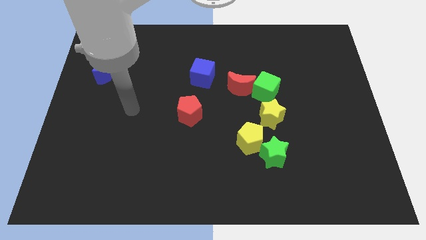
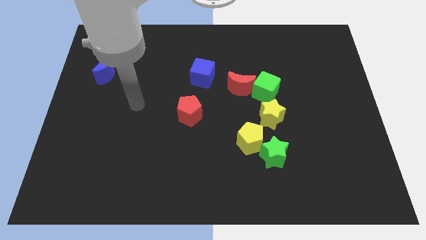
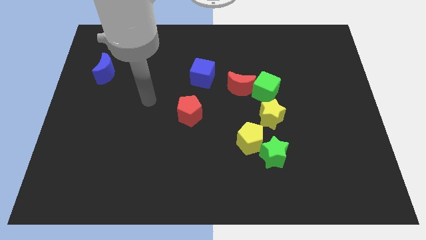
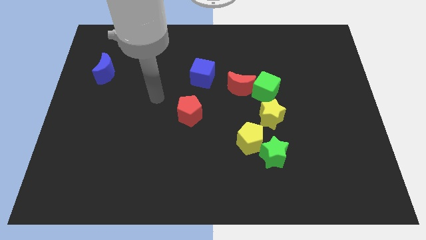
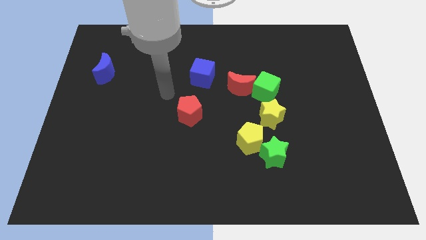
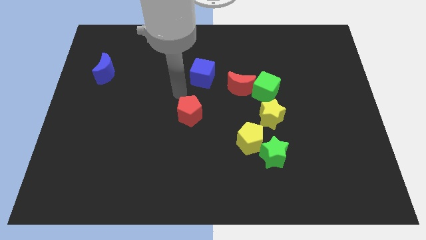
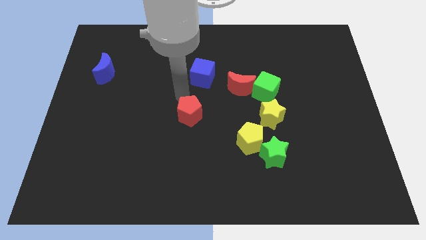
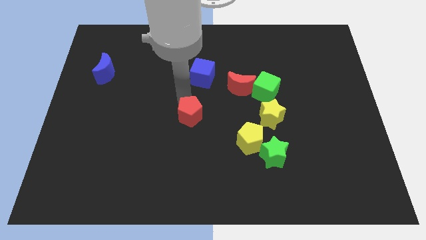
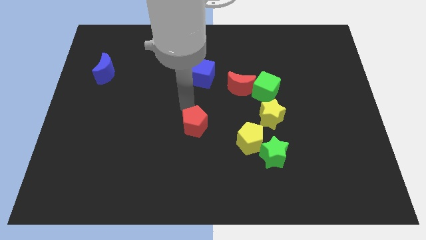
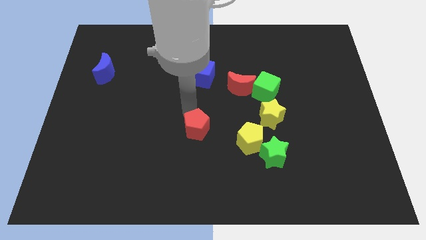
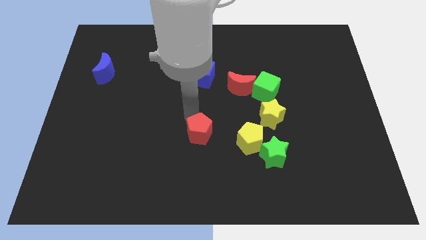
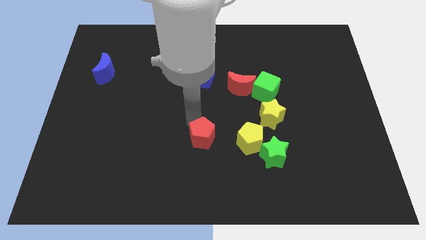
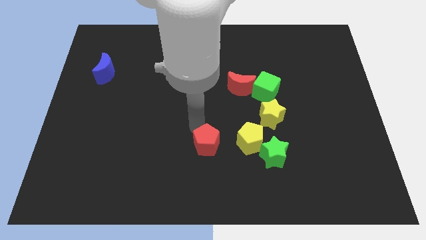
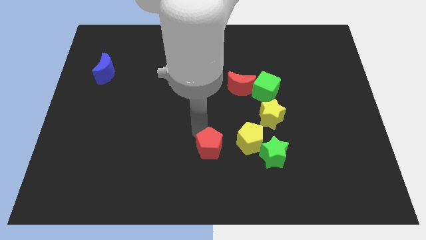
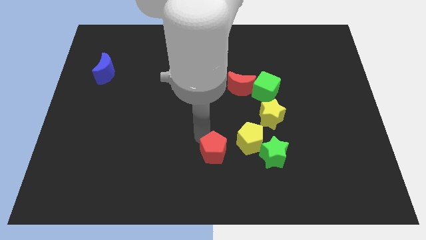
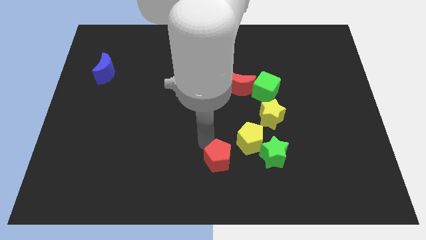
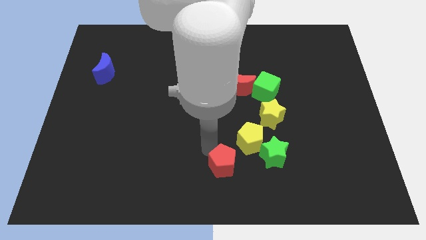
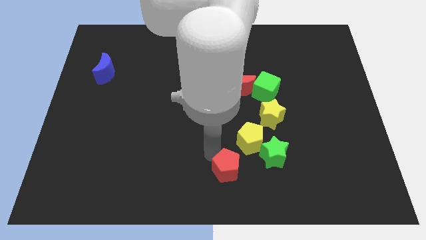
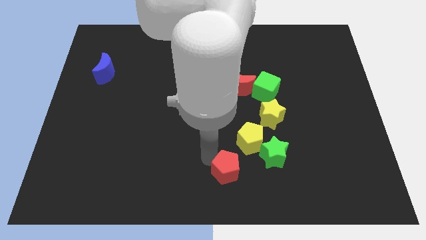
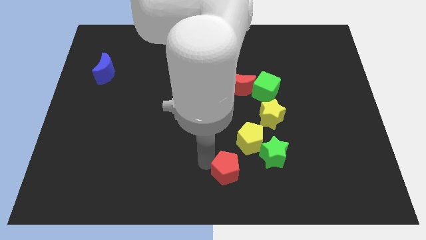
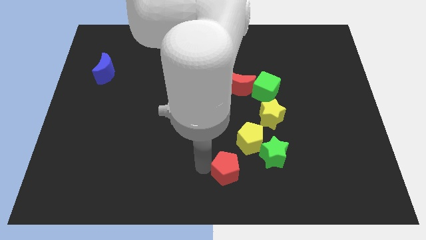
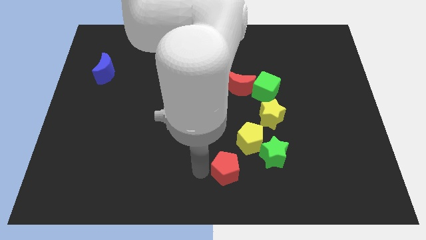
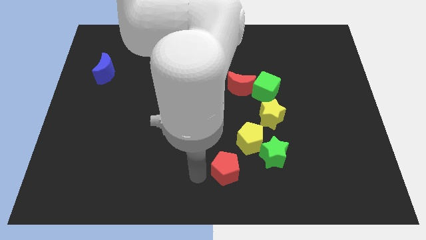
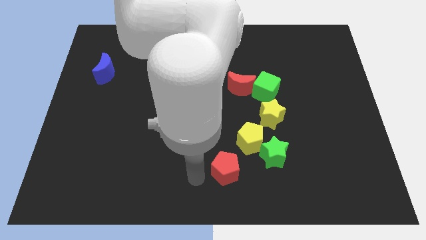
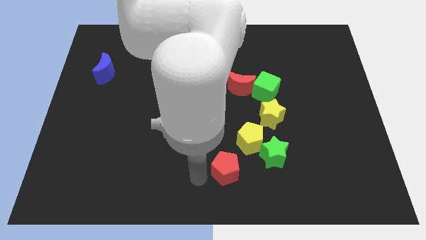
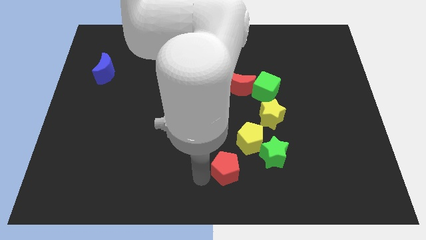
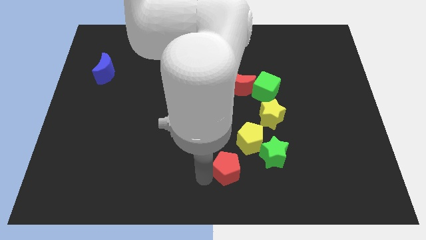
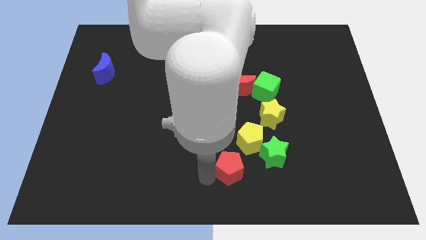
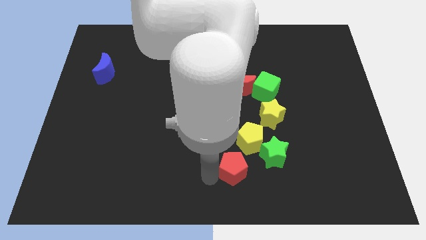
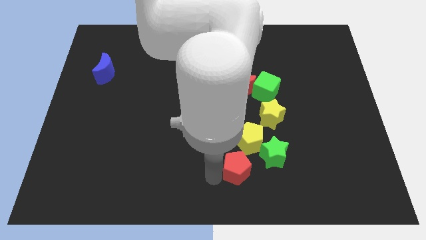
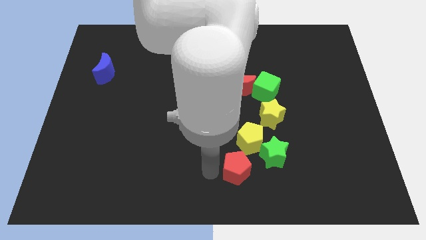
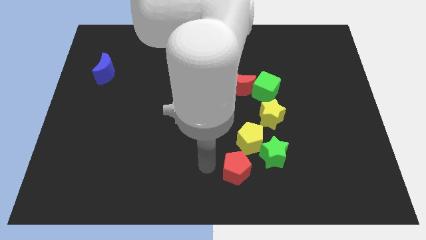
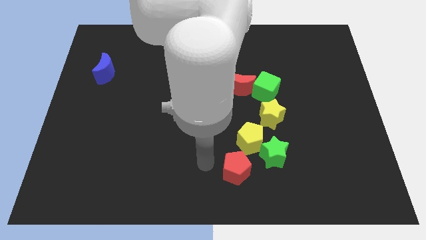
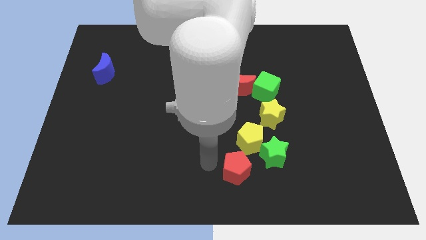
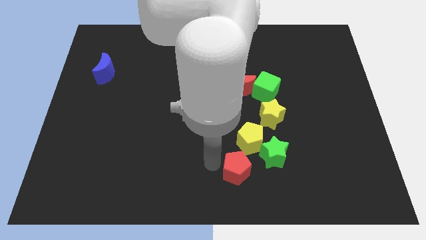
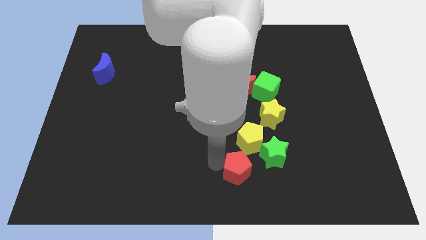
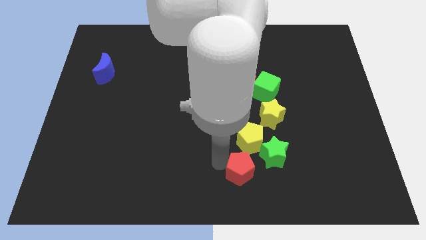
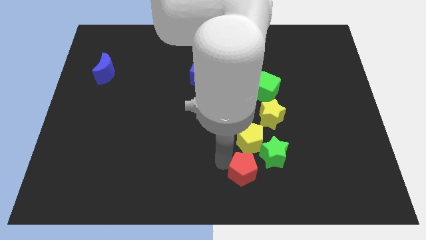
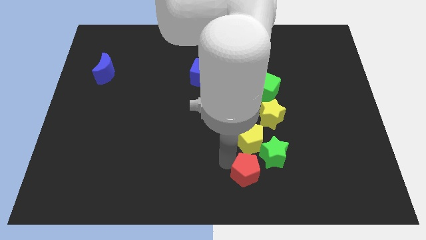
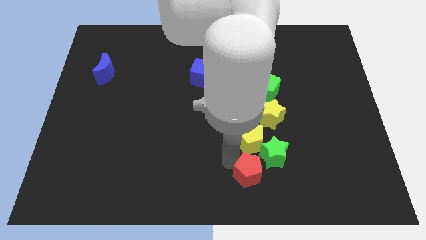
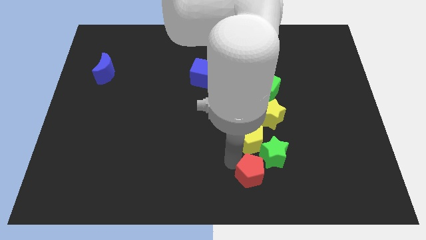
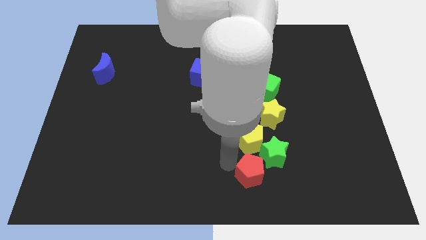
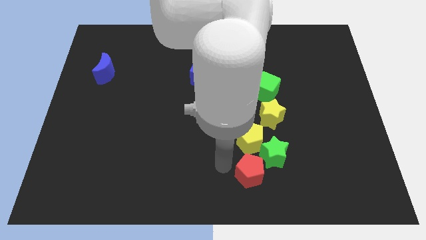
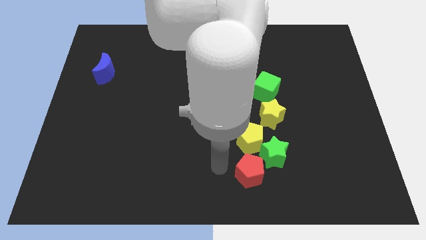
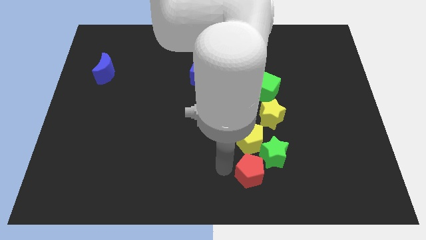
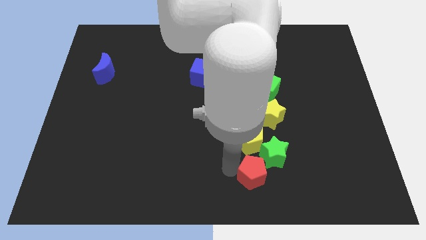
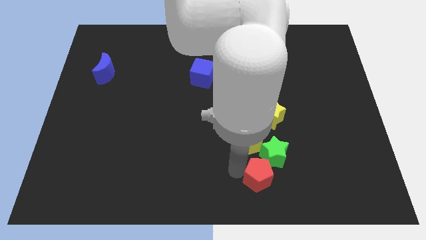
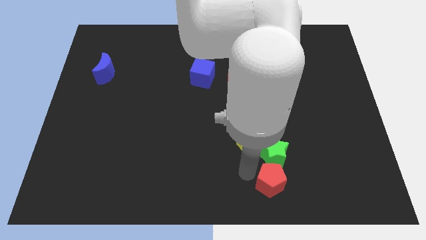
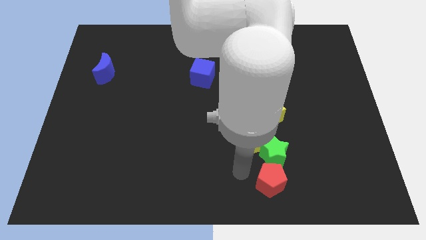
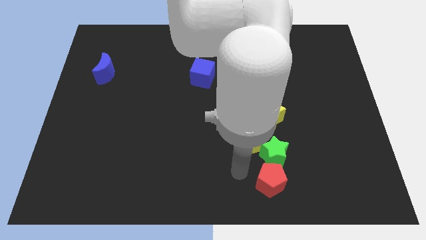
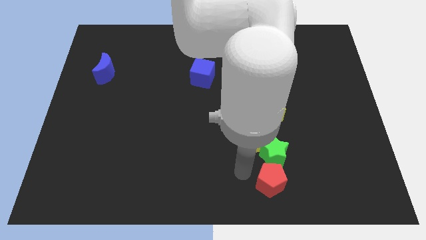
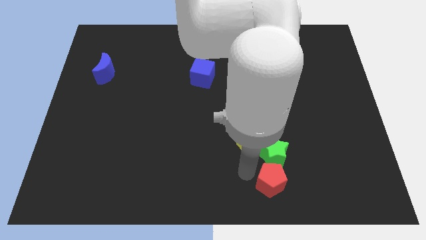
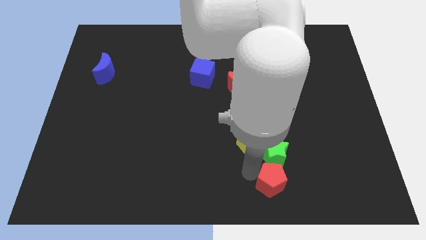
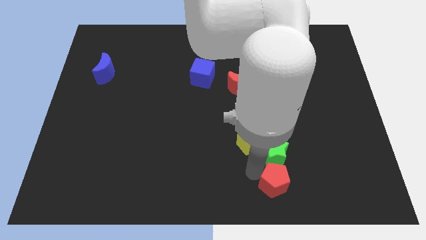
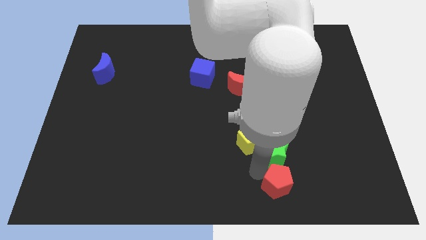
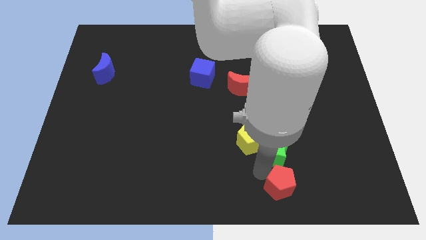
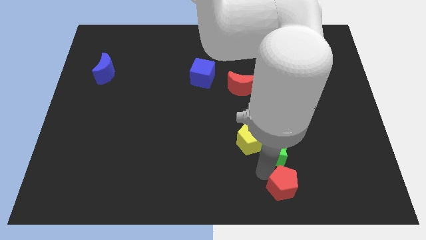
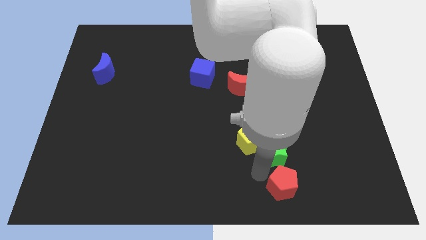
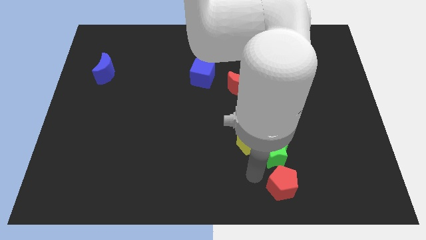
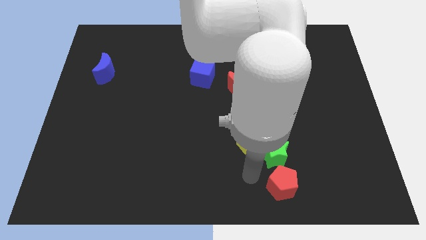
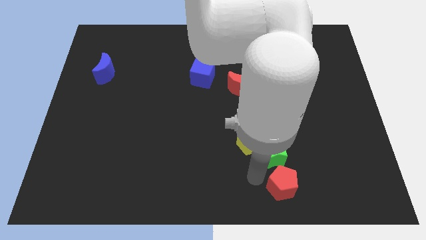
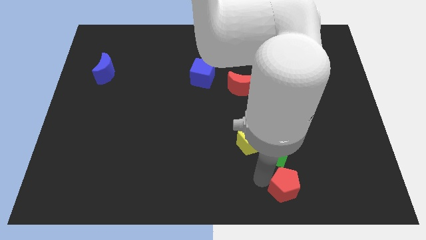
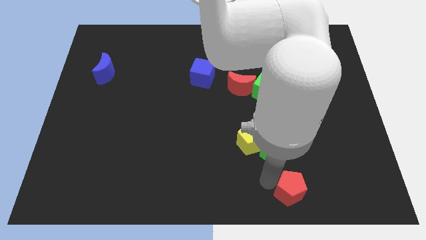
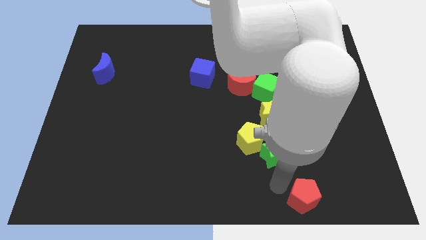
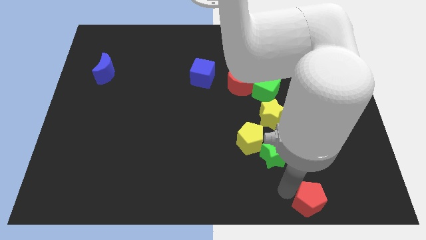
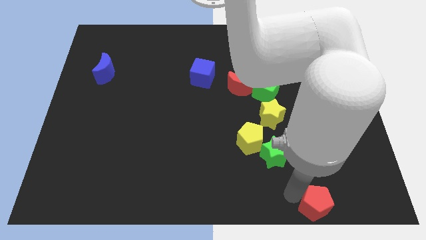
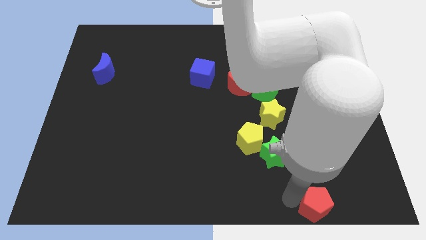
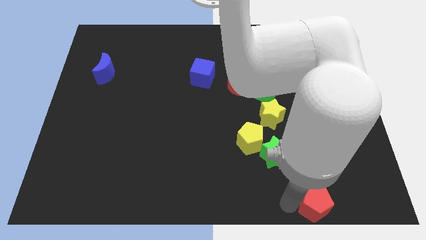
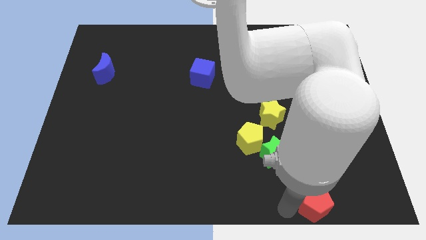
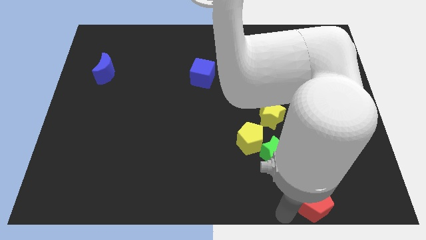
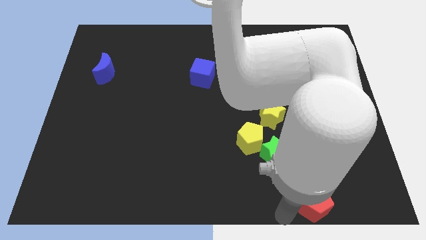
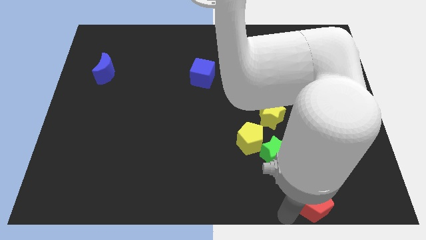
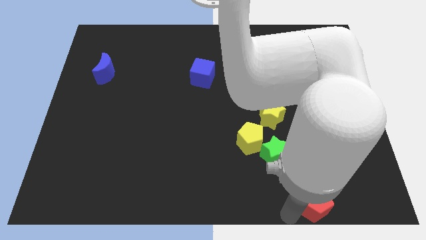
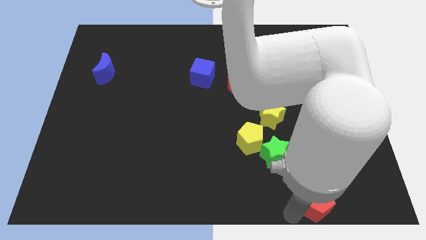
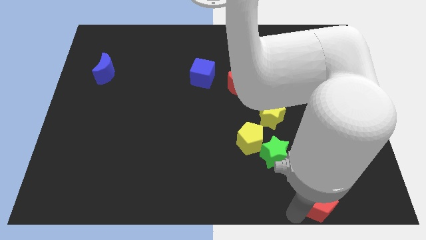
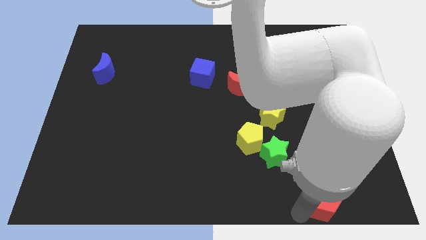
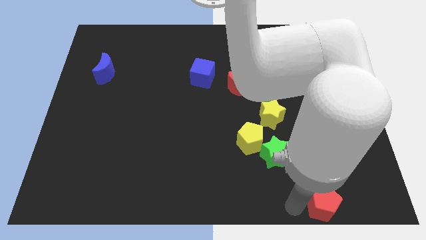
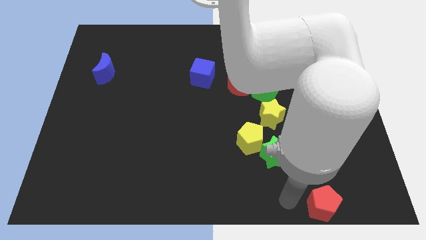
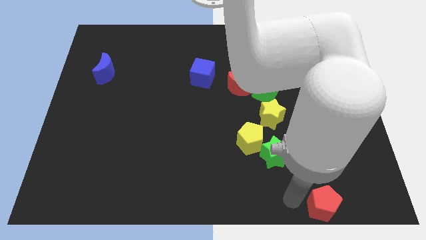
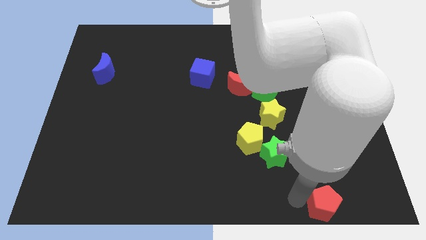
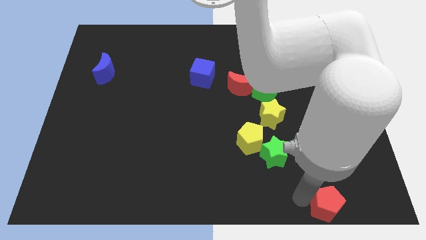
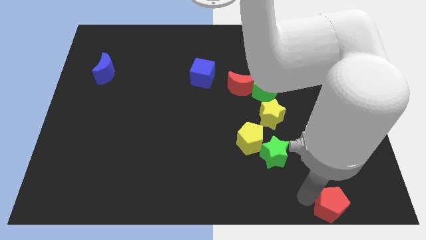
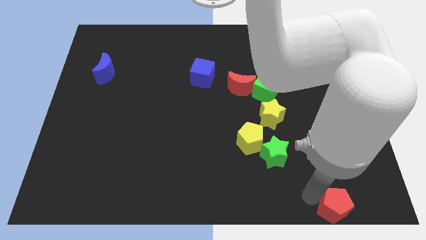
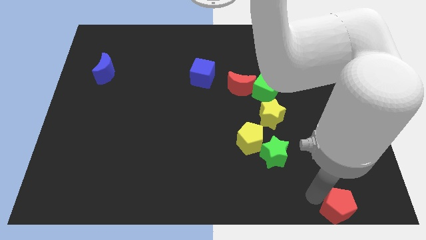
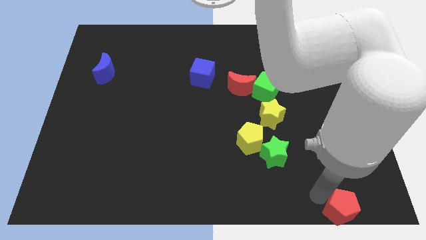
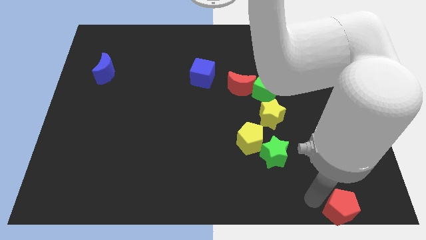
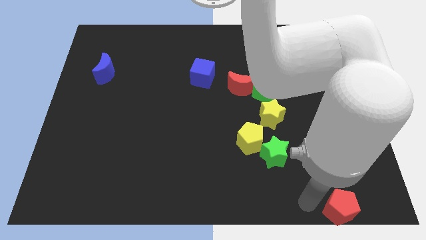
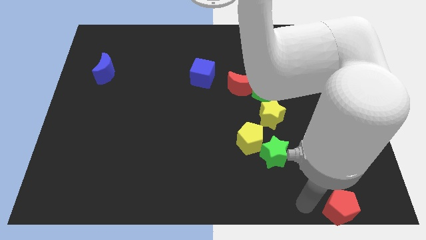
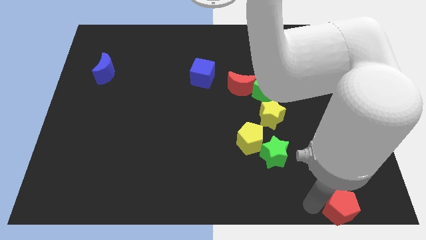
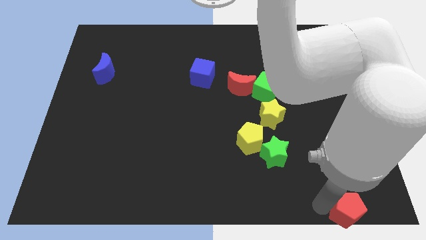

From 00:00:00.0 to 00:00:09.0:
slide the red pentagon to the lower right corner
